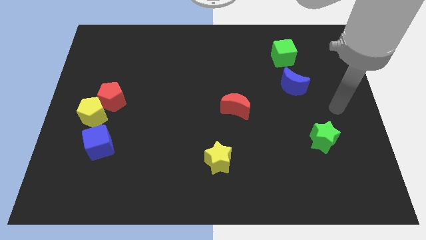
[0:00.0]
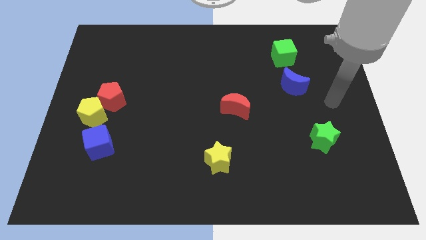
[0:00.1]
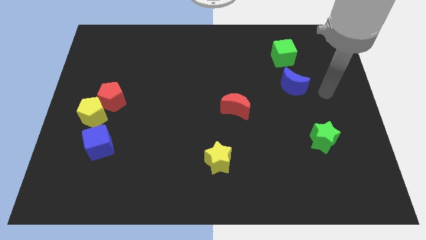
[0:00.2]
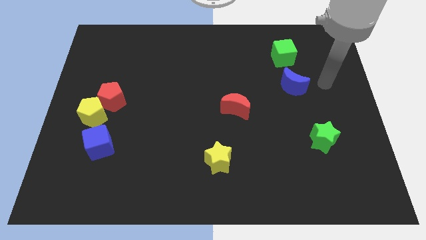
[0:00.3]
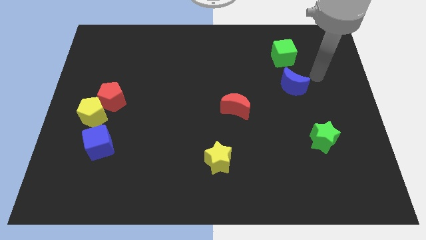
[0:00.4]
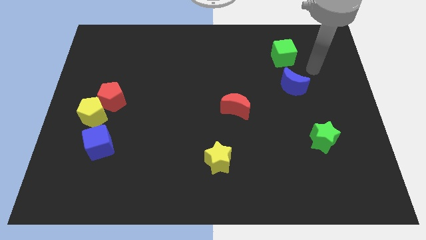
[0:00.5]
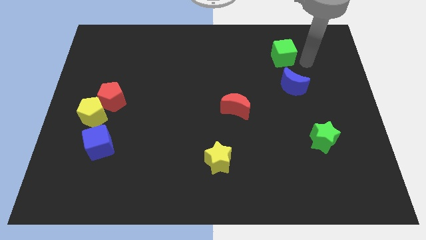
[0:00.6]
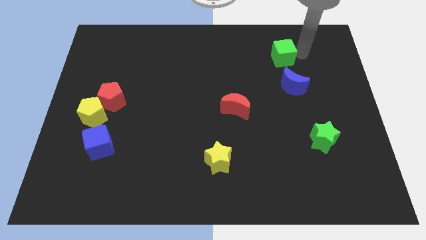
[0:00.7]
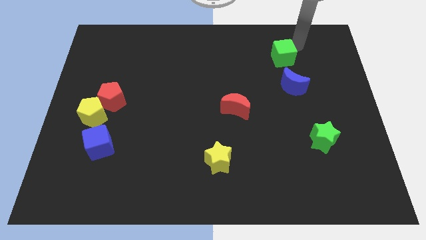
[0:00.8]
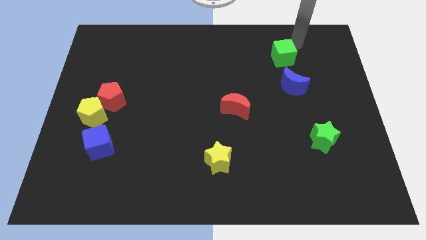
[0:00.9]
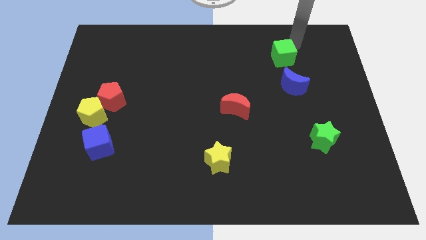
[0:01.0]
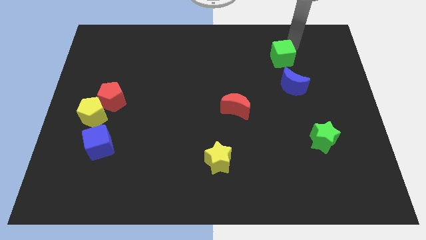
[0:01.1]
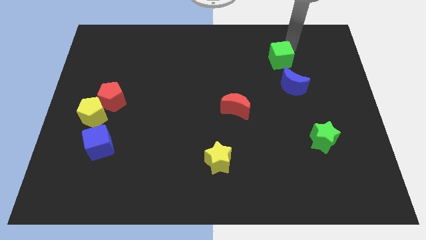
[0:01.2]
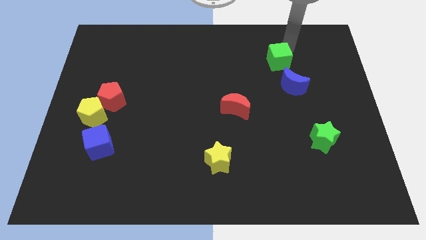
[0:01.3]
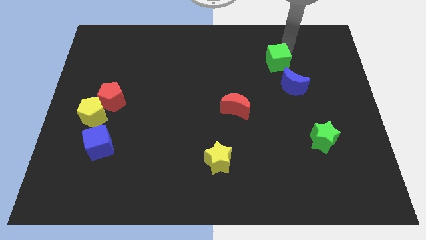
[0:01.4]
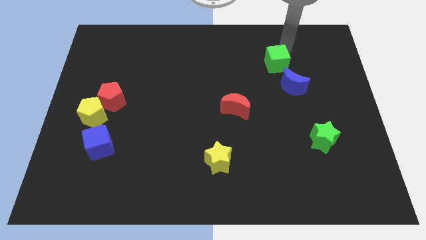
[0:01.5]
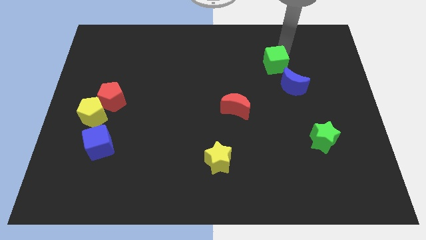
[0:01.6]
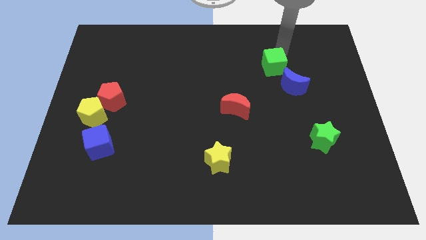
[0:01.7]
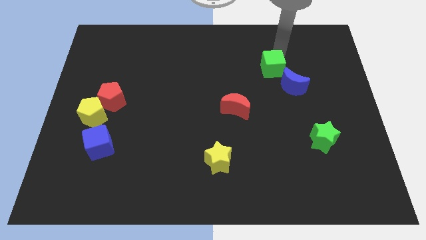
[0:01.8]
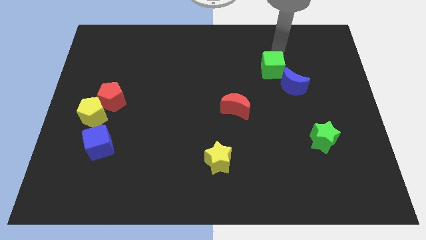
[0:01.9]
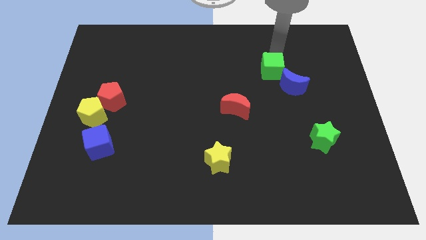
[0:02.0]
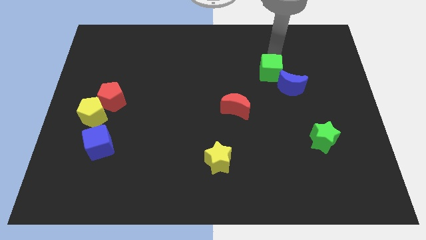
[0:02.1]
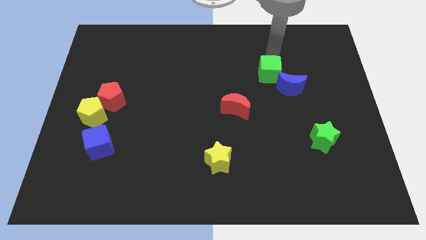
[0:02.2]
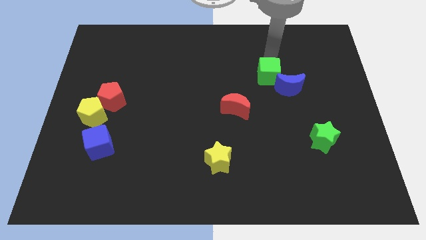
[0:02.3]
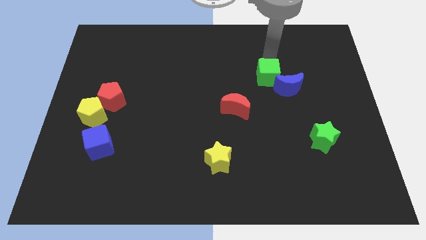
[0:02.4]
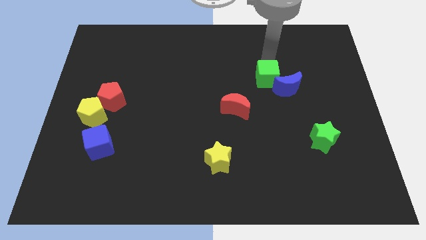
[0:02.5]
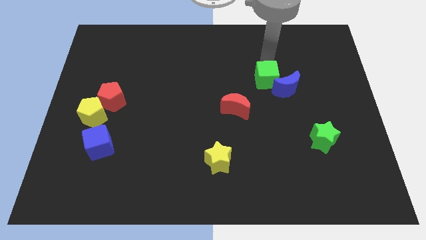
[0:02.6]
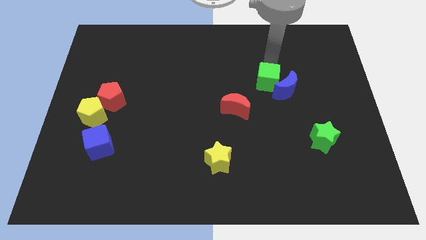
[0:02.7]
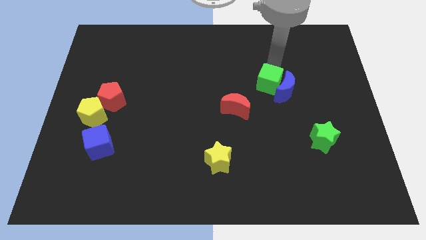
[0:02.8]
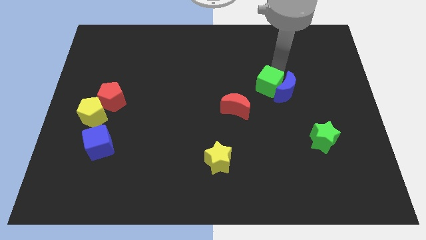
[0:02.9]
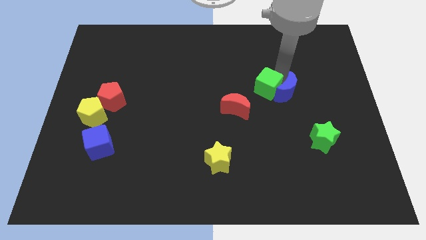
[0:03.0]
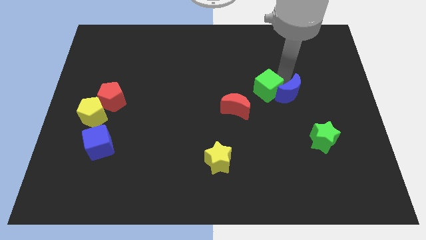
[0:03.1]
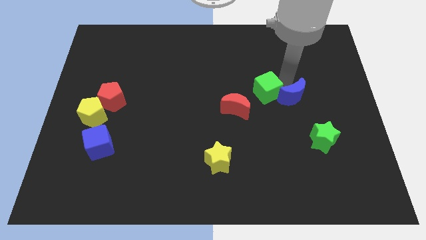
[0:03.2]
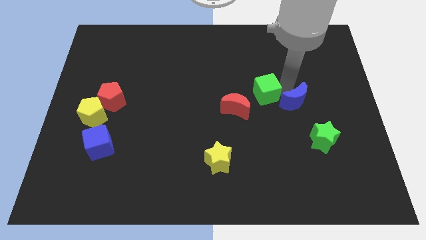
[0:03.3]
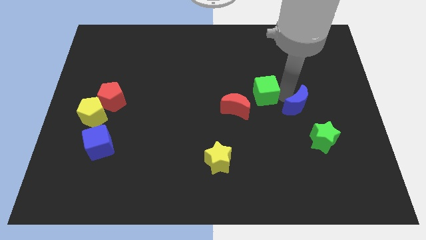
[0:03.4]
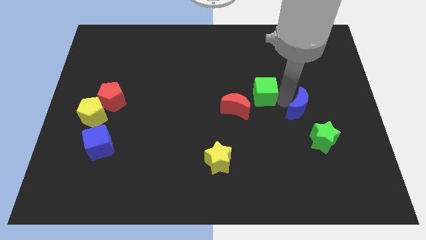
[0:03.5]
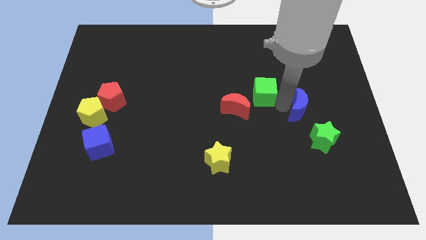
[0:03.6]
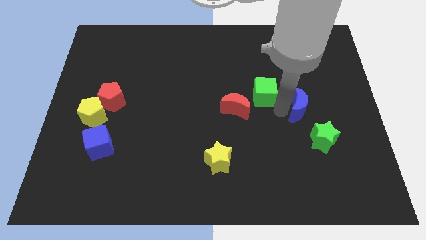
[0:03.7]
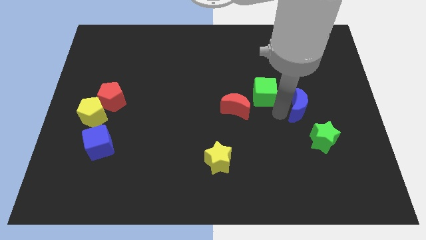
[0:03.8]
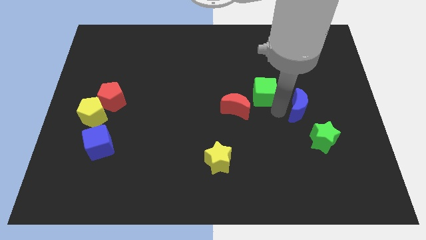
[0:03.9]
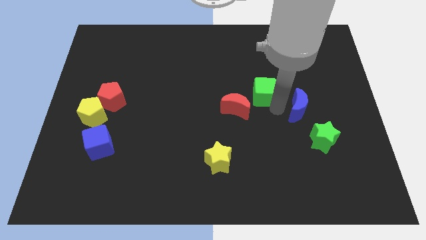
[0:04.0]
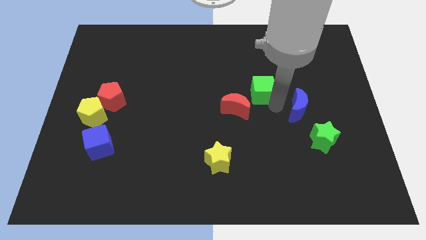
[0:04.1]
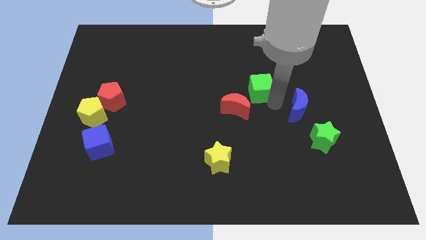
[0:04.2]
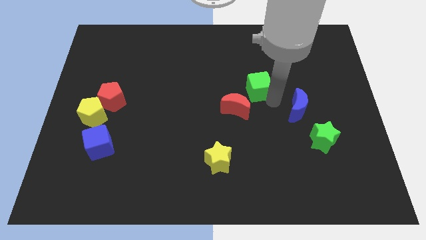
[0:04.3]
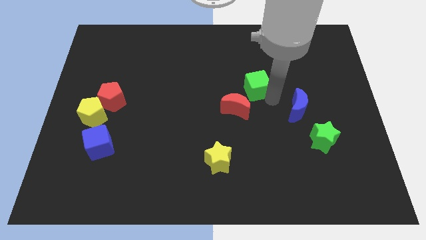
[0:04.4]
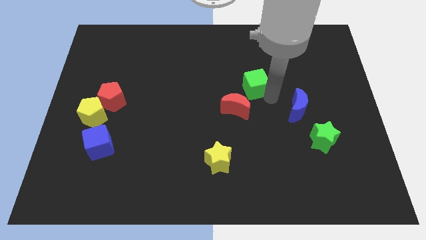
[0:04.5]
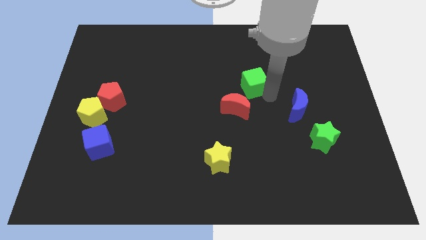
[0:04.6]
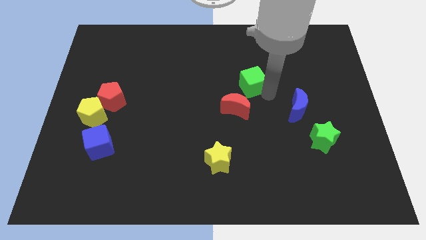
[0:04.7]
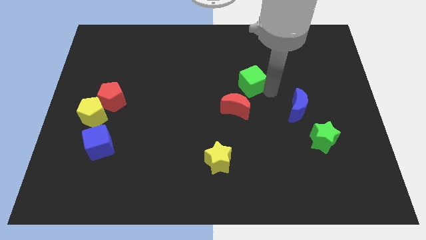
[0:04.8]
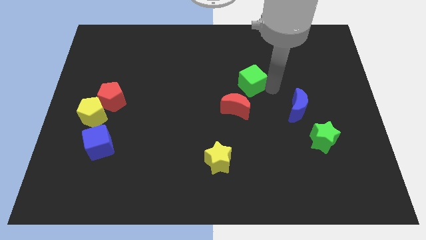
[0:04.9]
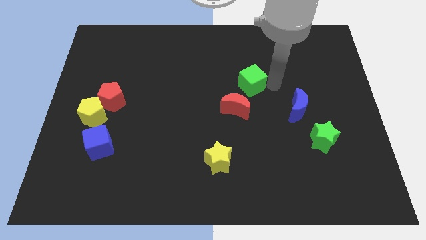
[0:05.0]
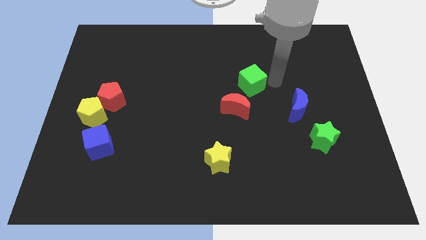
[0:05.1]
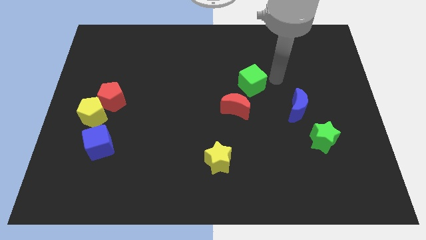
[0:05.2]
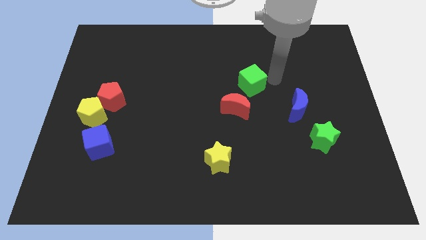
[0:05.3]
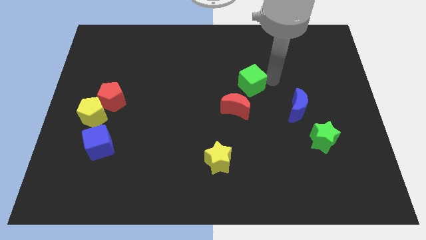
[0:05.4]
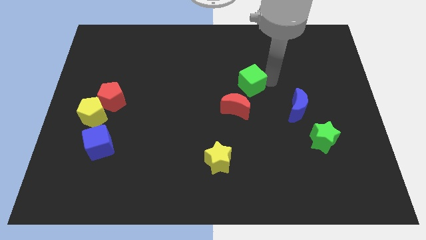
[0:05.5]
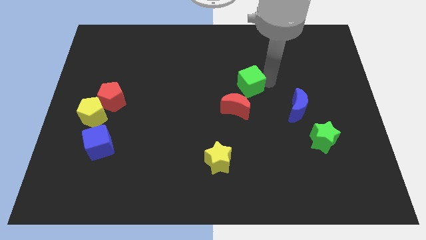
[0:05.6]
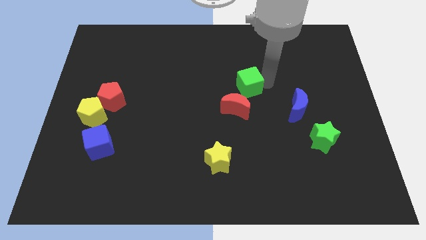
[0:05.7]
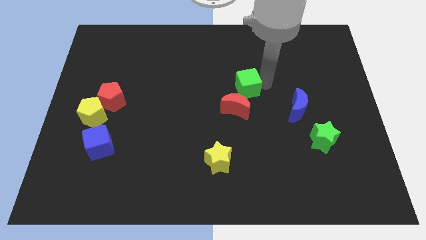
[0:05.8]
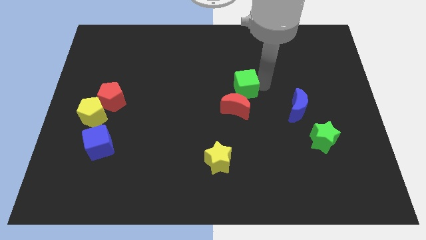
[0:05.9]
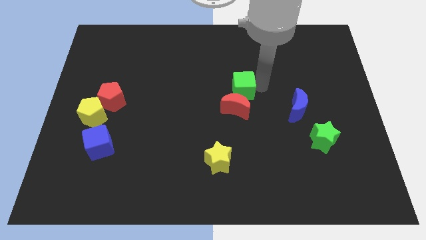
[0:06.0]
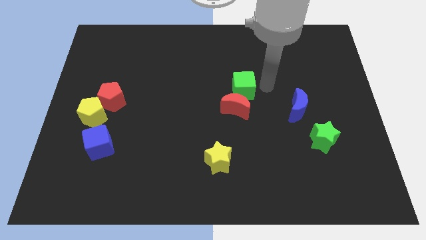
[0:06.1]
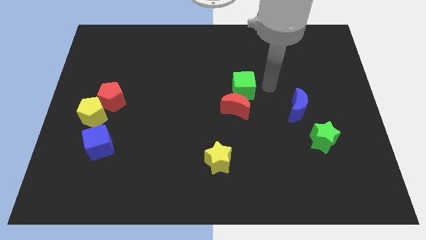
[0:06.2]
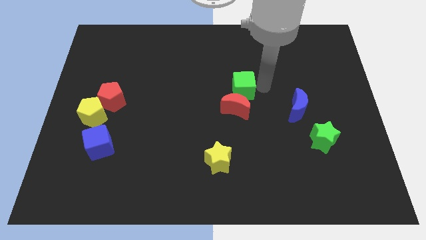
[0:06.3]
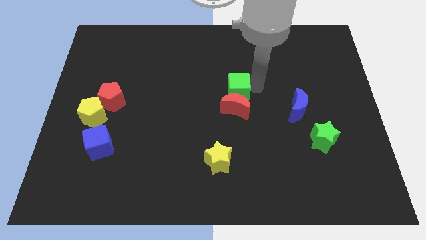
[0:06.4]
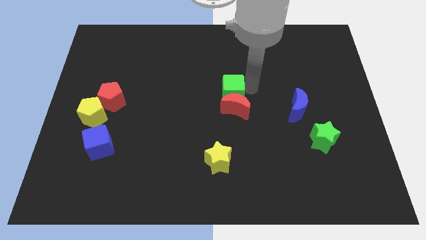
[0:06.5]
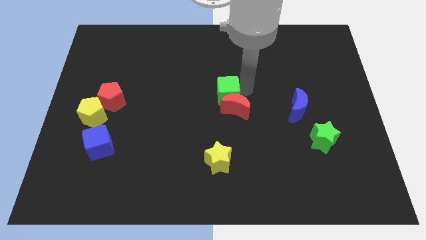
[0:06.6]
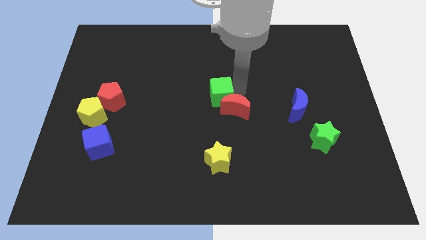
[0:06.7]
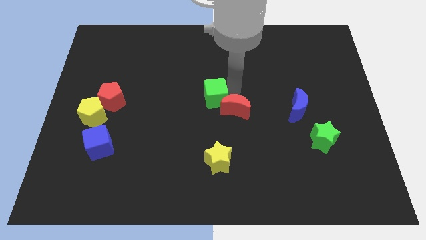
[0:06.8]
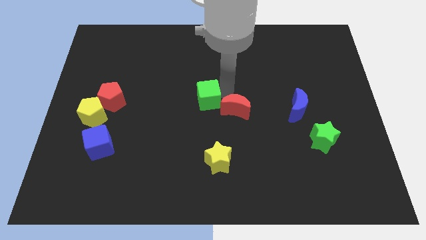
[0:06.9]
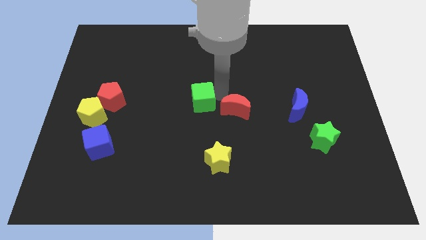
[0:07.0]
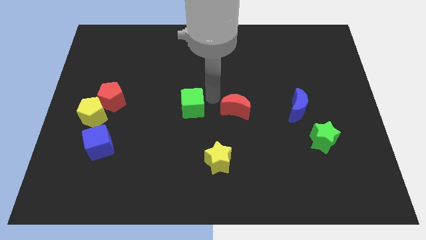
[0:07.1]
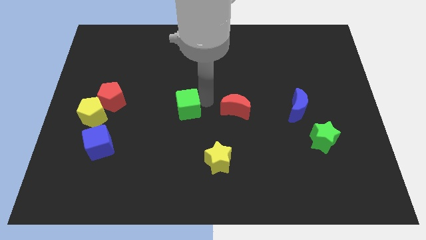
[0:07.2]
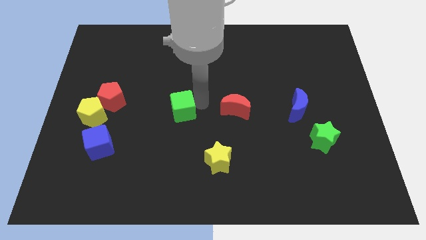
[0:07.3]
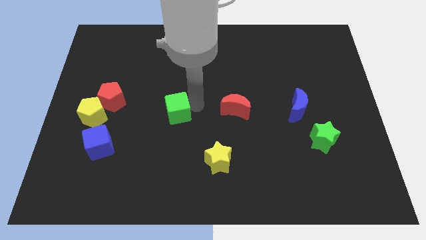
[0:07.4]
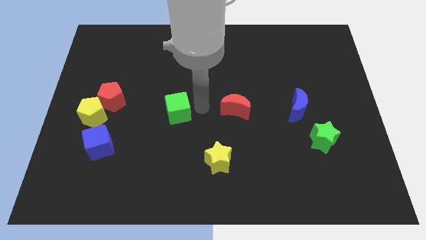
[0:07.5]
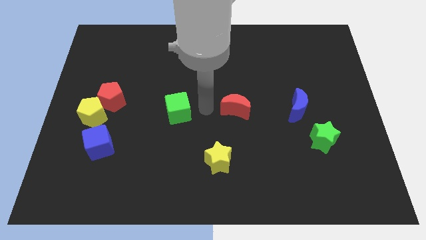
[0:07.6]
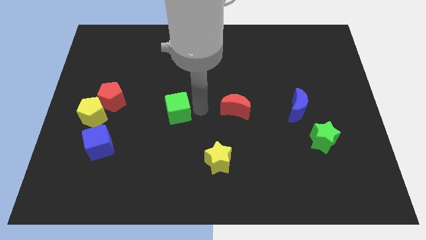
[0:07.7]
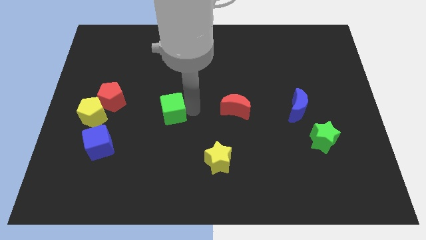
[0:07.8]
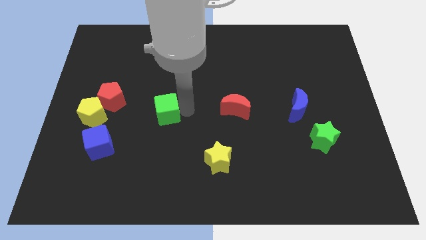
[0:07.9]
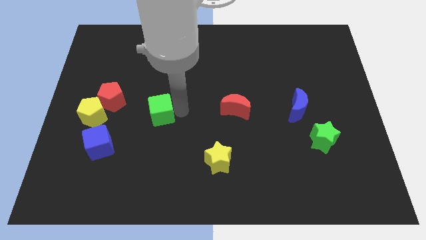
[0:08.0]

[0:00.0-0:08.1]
slide the green cube to the right of the yellow pentagon
